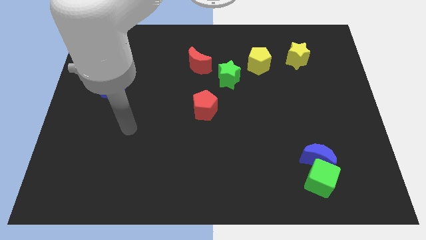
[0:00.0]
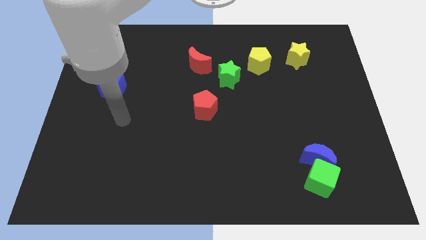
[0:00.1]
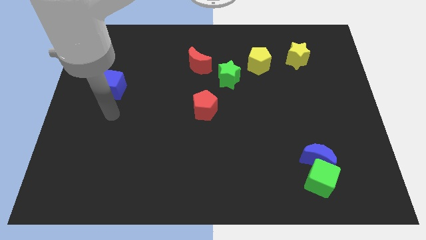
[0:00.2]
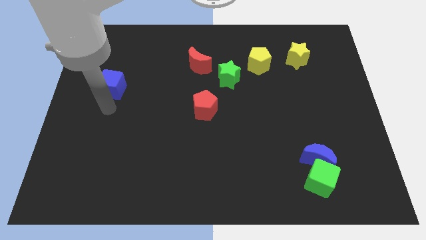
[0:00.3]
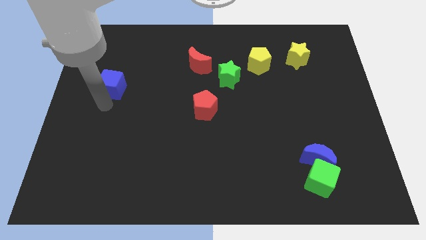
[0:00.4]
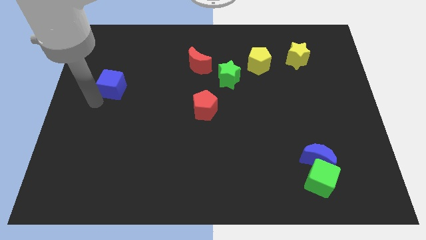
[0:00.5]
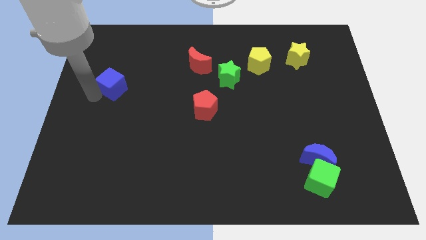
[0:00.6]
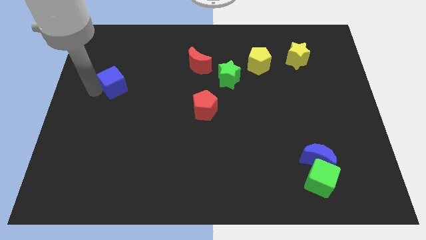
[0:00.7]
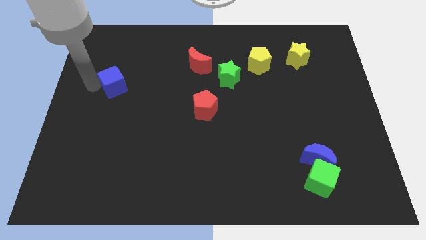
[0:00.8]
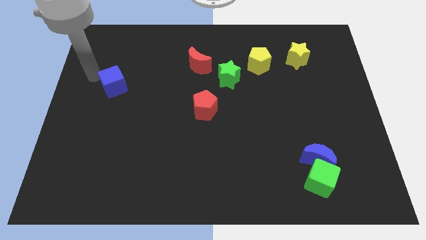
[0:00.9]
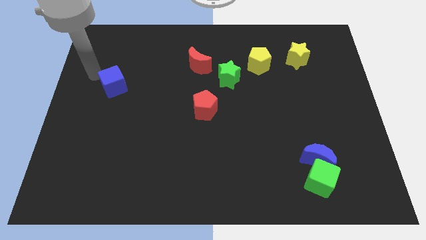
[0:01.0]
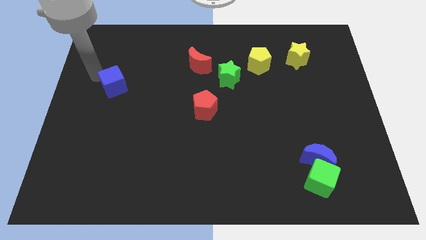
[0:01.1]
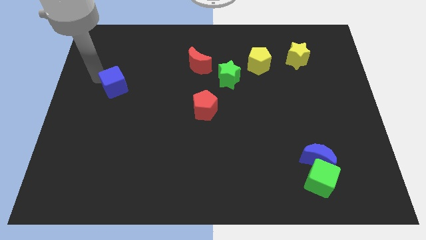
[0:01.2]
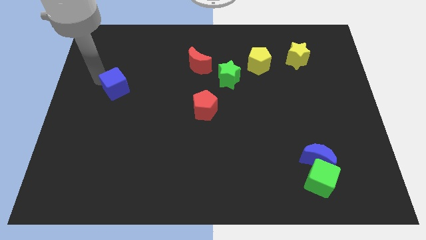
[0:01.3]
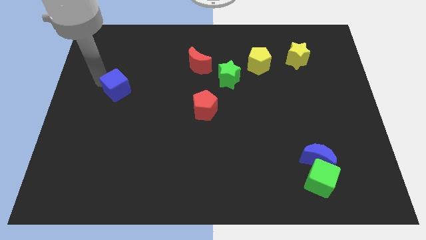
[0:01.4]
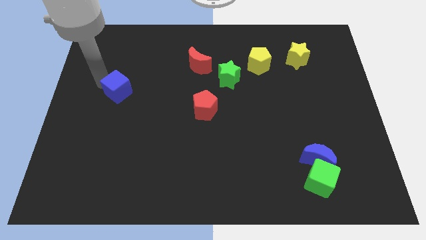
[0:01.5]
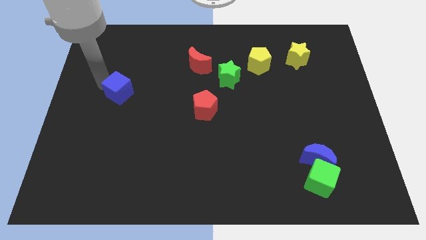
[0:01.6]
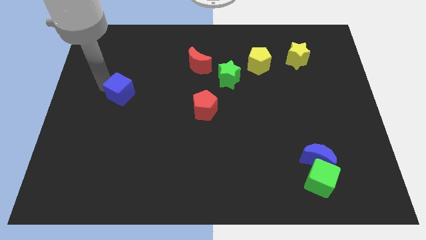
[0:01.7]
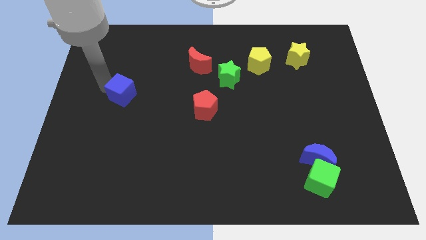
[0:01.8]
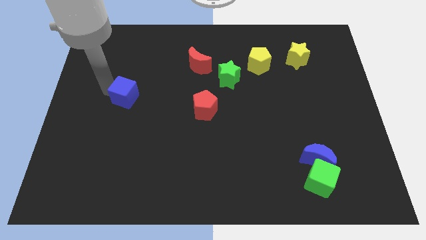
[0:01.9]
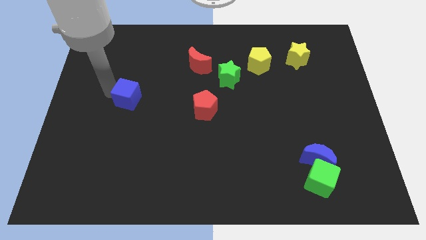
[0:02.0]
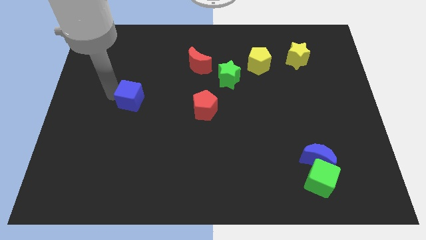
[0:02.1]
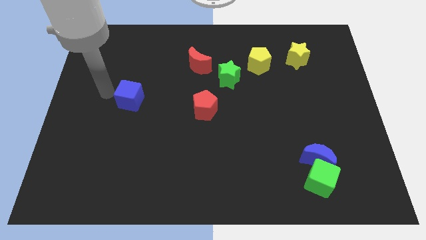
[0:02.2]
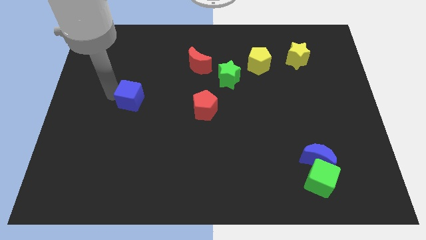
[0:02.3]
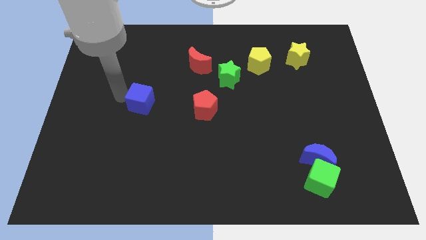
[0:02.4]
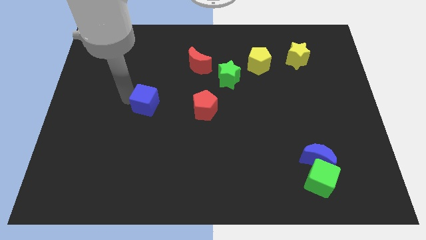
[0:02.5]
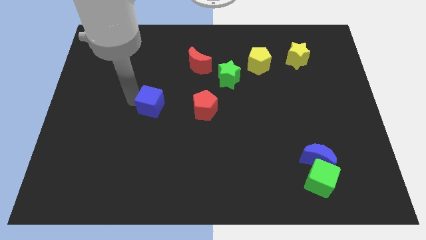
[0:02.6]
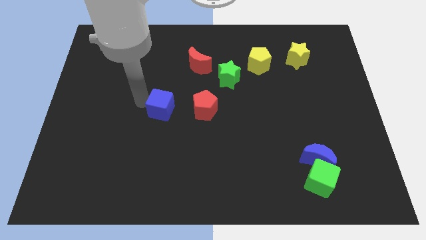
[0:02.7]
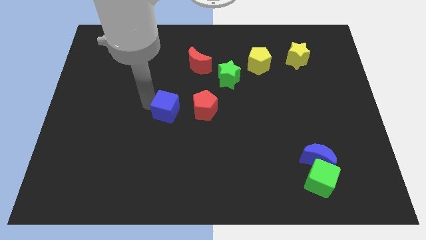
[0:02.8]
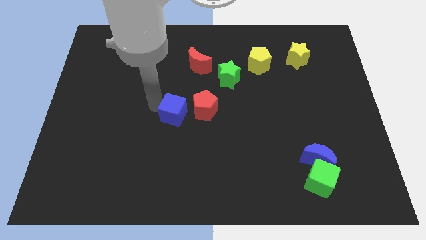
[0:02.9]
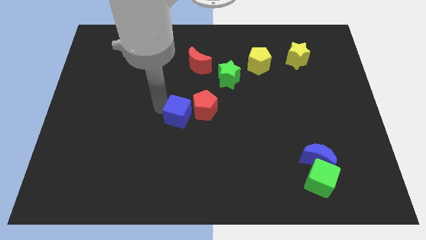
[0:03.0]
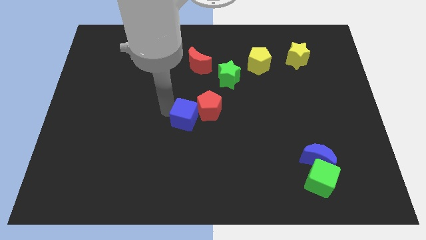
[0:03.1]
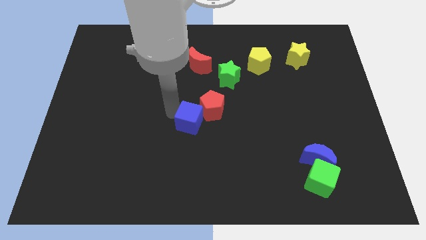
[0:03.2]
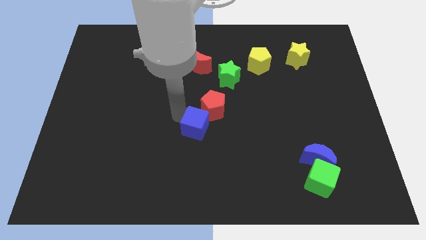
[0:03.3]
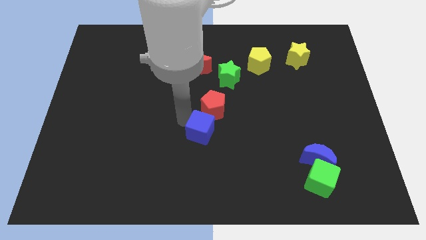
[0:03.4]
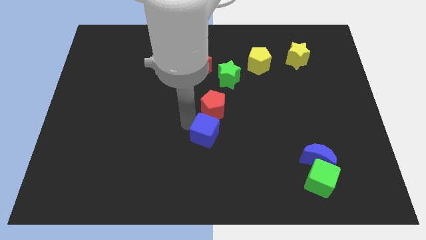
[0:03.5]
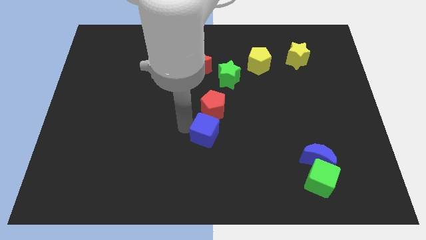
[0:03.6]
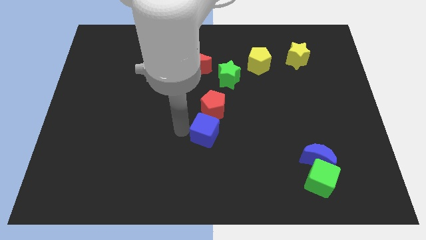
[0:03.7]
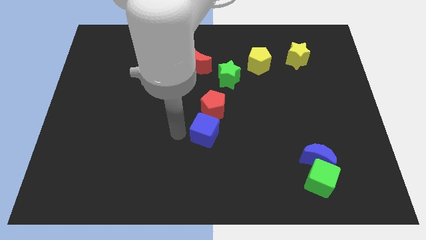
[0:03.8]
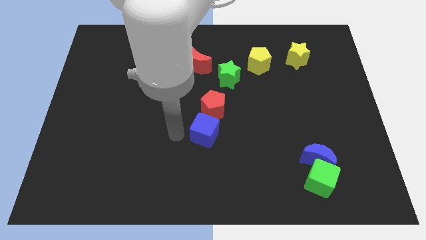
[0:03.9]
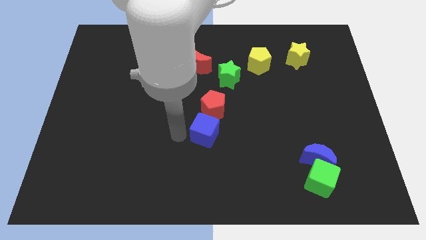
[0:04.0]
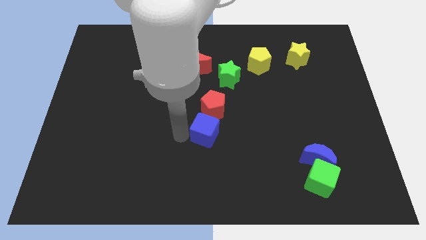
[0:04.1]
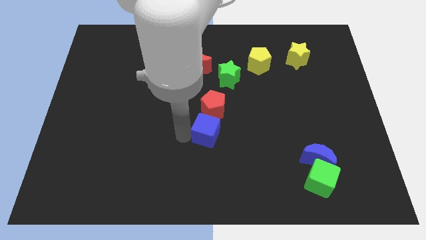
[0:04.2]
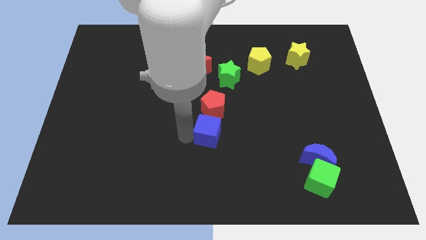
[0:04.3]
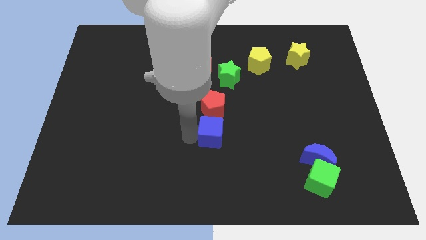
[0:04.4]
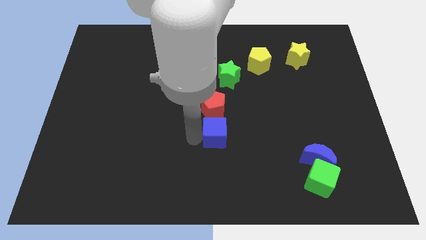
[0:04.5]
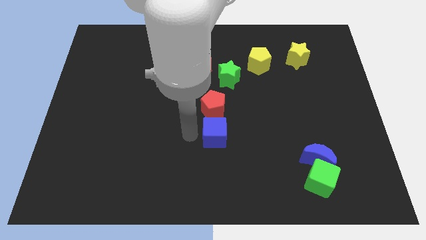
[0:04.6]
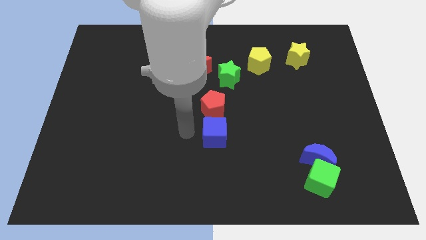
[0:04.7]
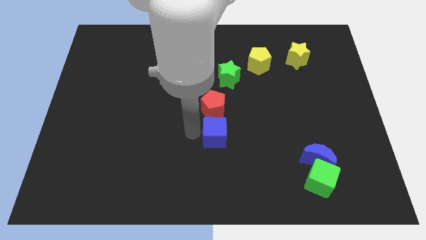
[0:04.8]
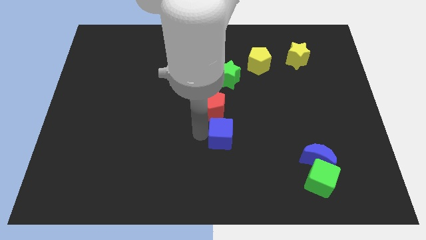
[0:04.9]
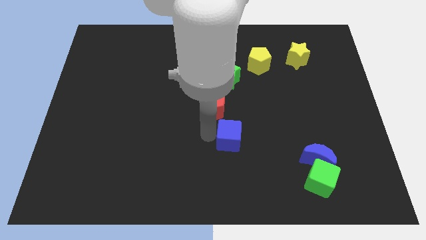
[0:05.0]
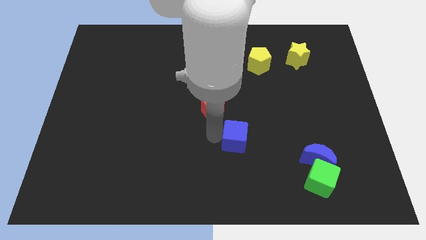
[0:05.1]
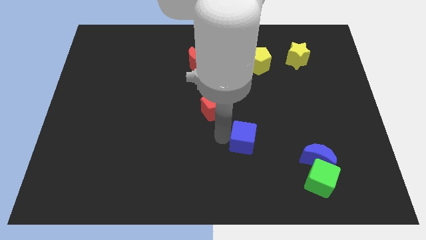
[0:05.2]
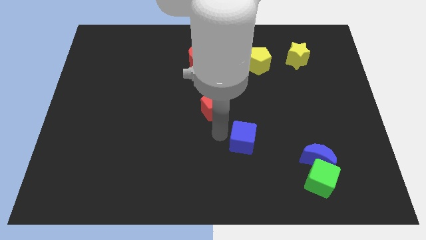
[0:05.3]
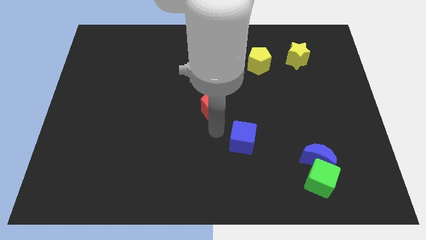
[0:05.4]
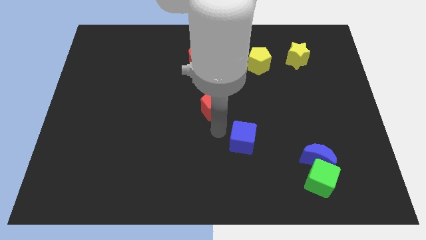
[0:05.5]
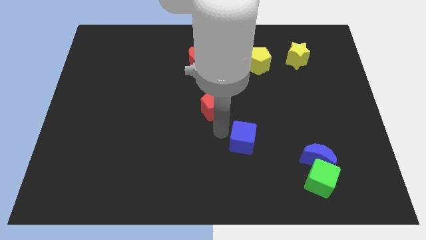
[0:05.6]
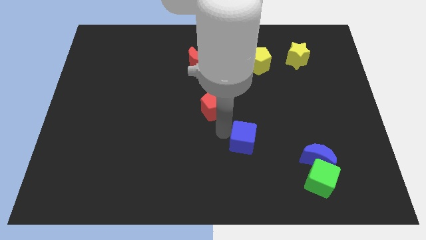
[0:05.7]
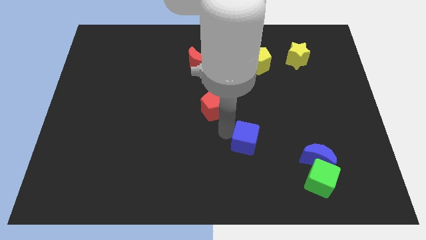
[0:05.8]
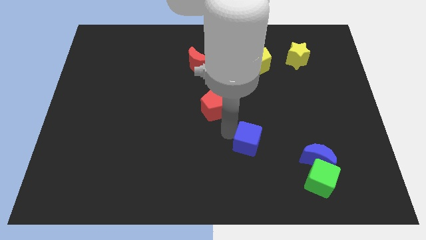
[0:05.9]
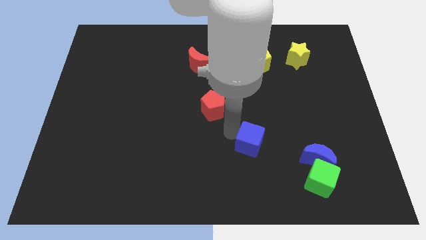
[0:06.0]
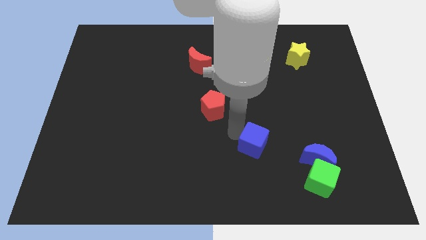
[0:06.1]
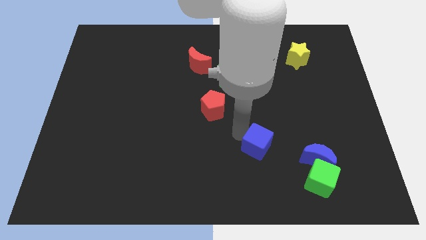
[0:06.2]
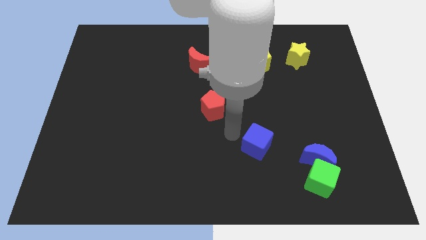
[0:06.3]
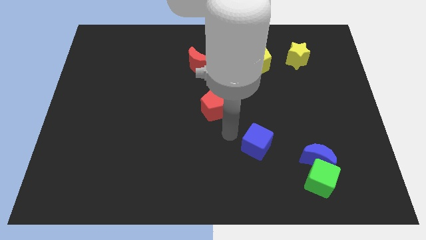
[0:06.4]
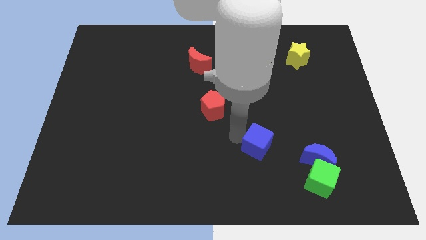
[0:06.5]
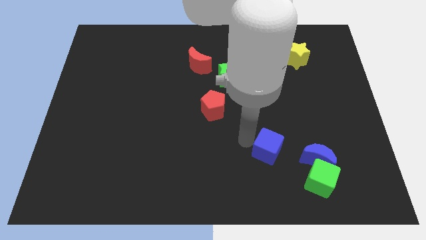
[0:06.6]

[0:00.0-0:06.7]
push the blue cube to the top left side of the green cube

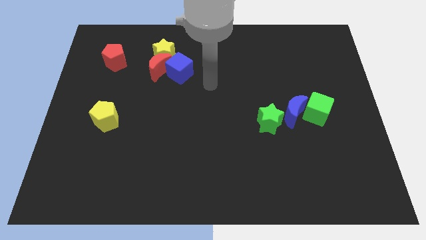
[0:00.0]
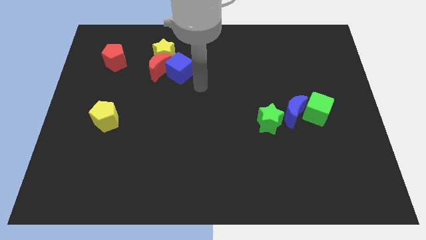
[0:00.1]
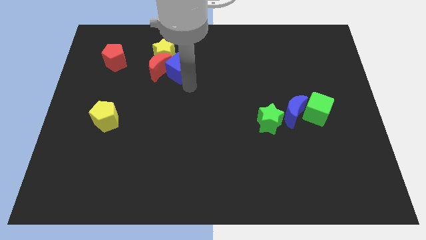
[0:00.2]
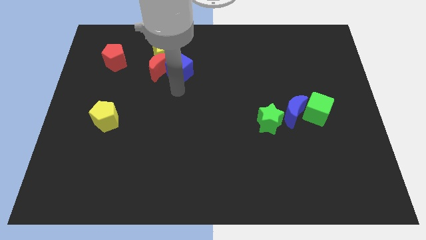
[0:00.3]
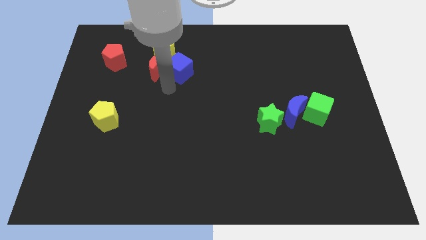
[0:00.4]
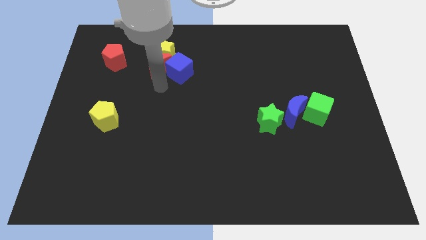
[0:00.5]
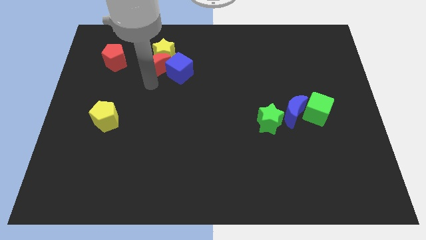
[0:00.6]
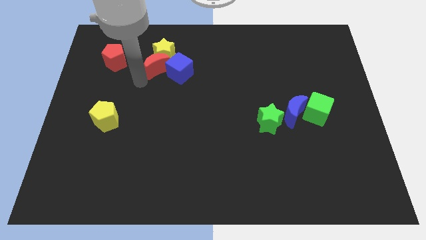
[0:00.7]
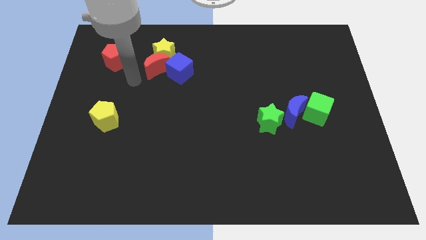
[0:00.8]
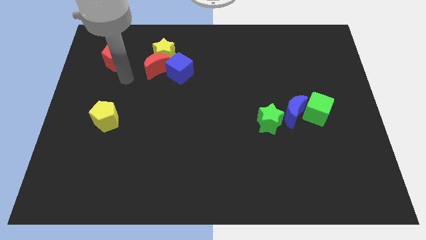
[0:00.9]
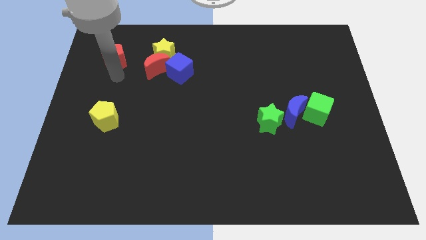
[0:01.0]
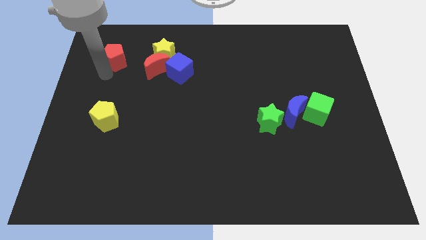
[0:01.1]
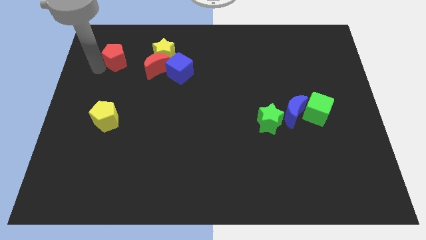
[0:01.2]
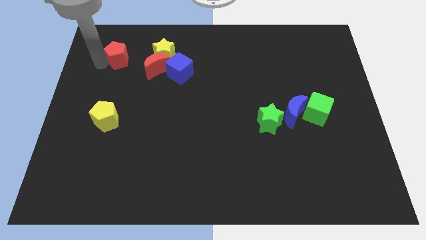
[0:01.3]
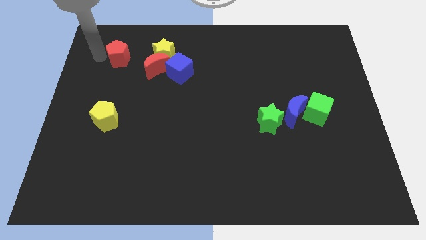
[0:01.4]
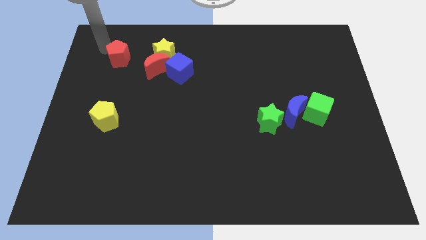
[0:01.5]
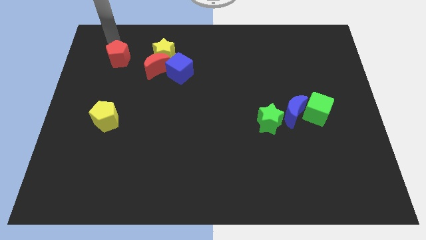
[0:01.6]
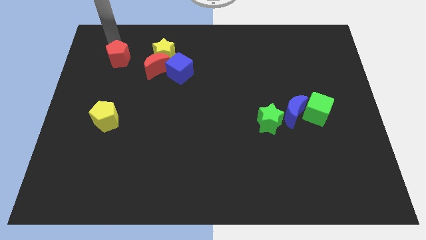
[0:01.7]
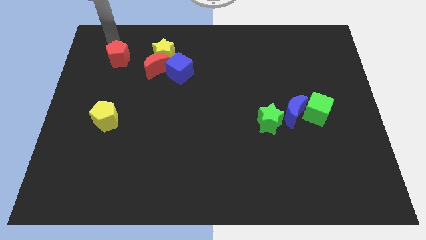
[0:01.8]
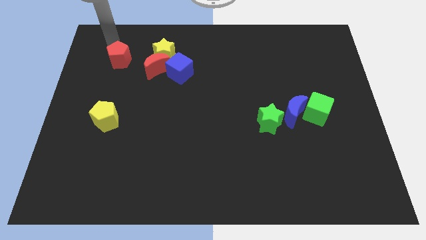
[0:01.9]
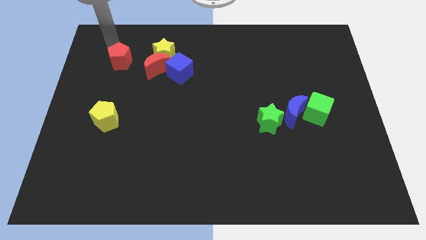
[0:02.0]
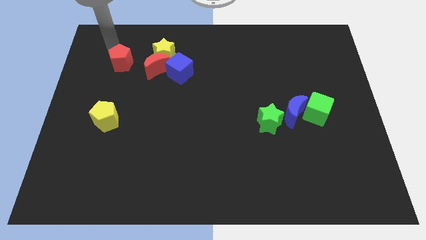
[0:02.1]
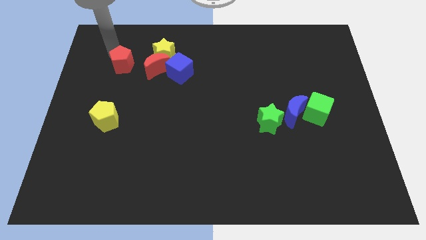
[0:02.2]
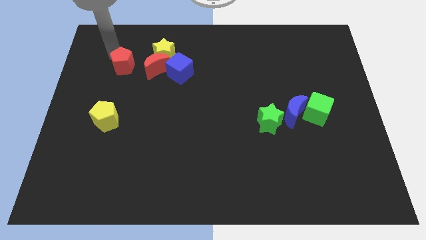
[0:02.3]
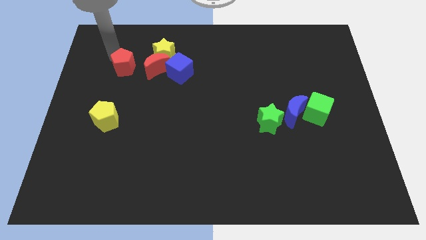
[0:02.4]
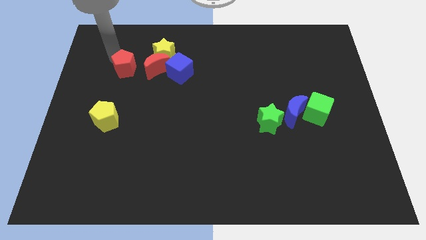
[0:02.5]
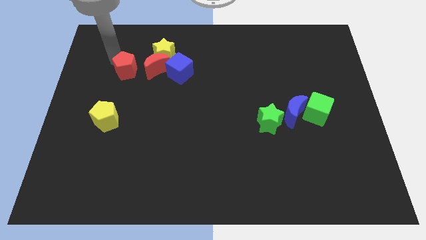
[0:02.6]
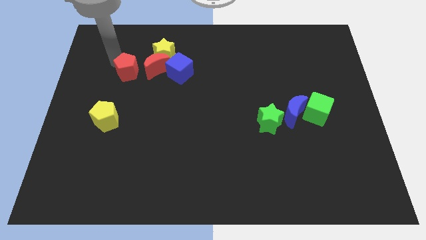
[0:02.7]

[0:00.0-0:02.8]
push the red pentagon to the bottom left of the red moon
